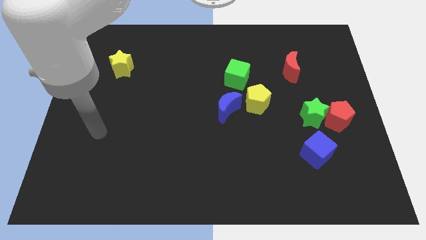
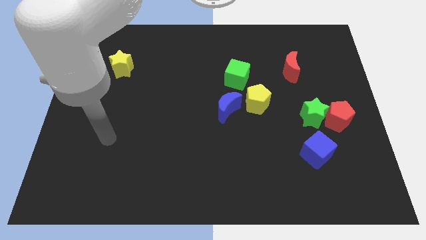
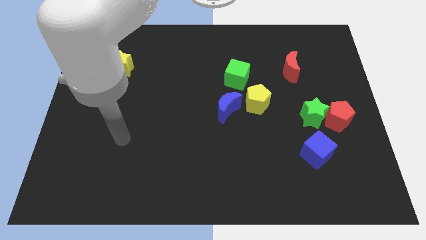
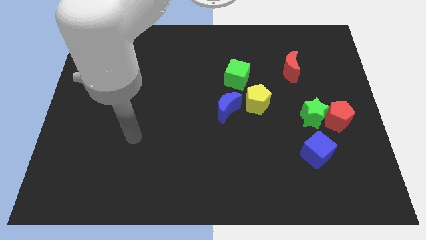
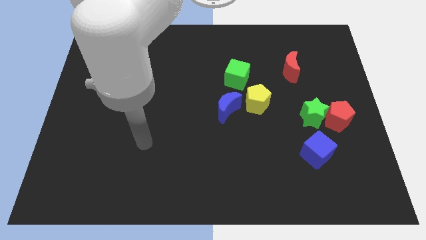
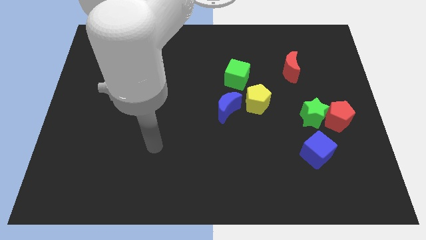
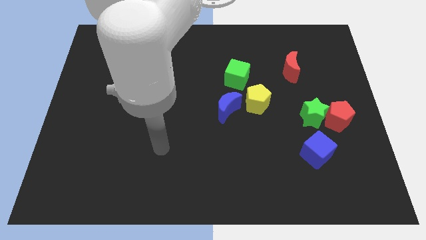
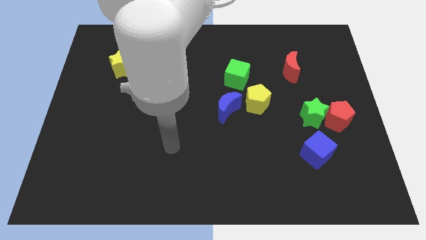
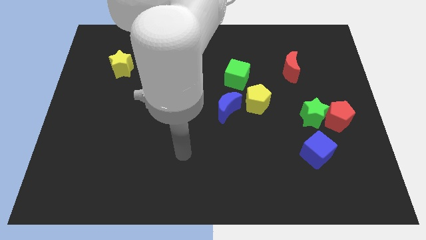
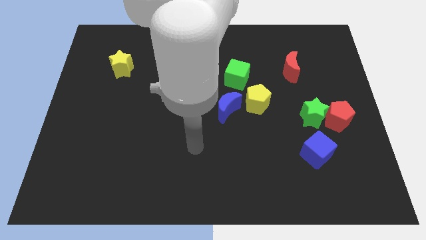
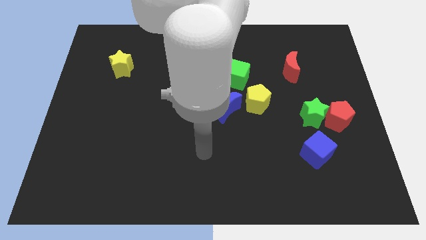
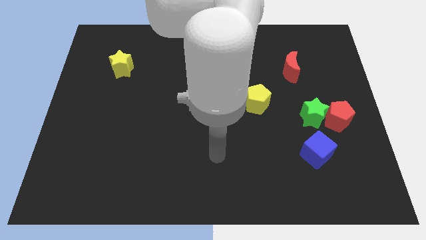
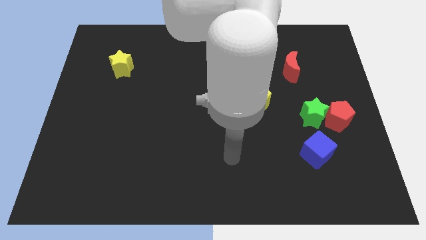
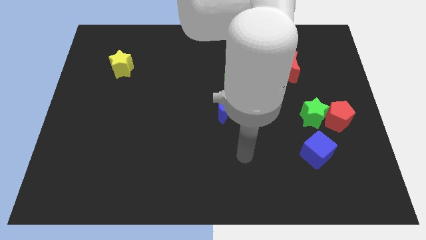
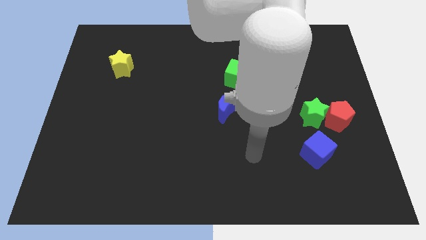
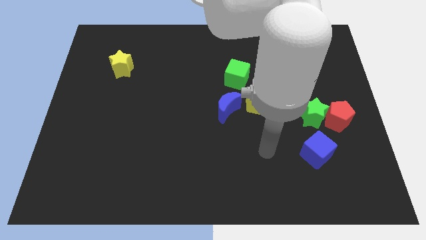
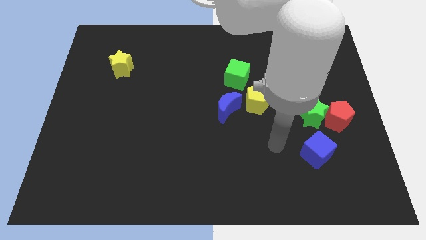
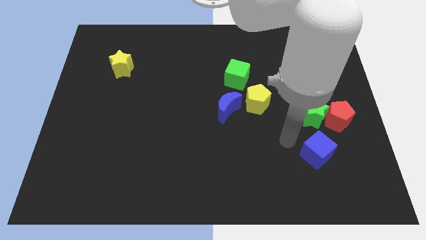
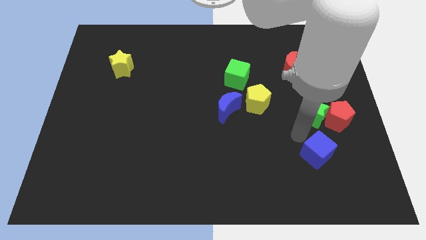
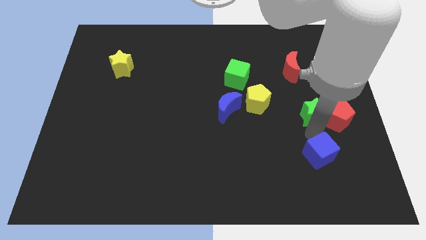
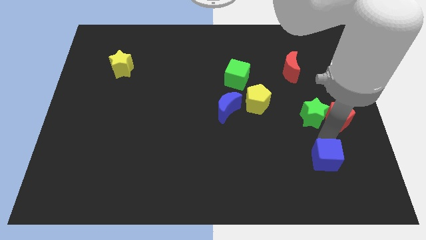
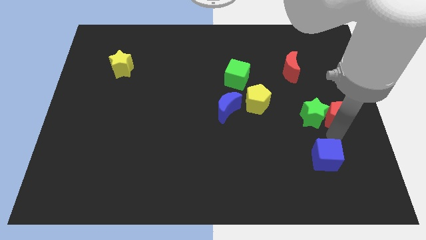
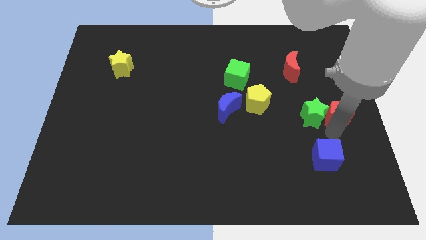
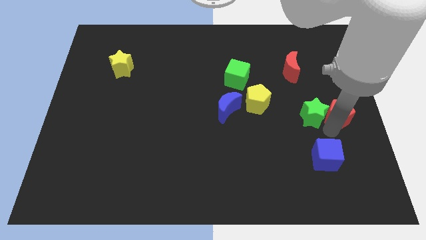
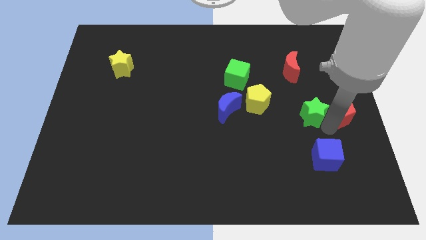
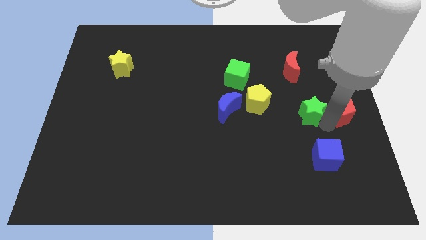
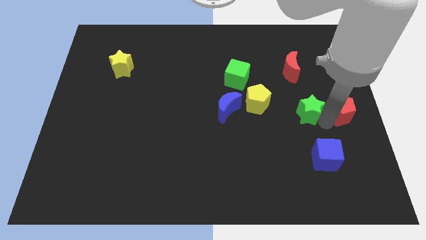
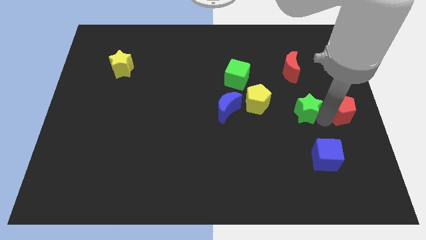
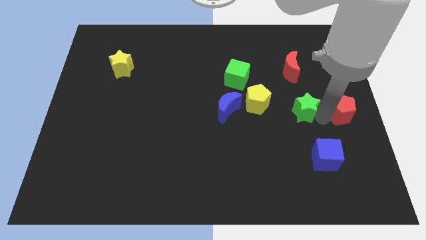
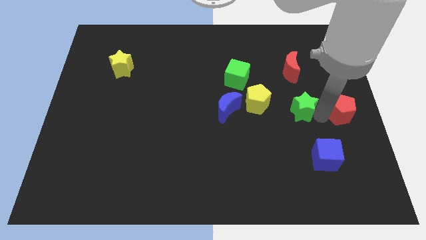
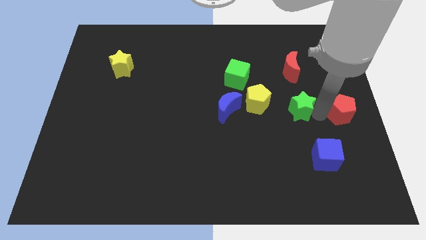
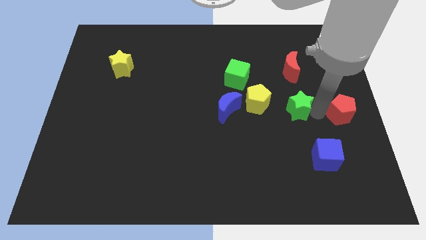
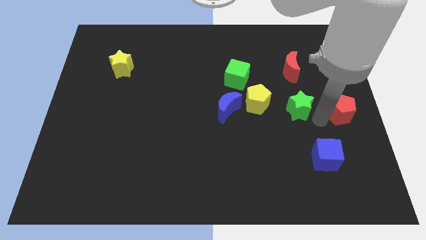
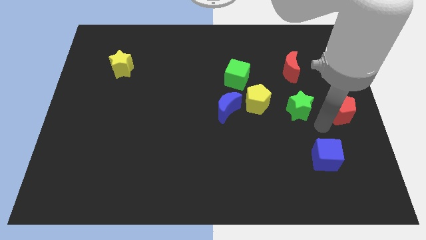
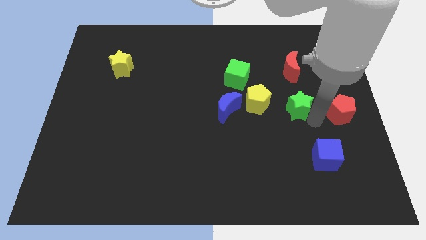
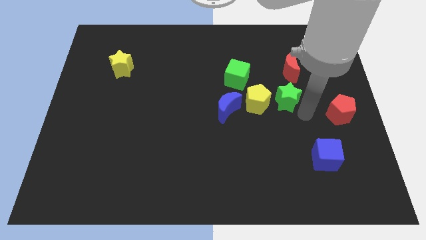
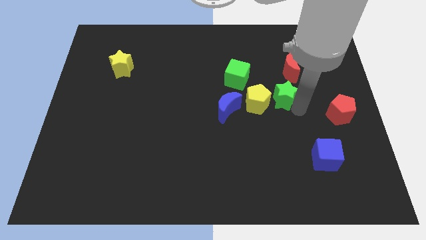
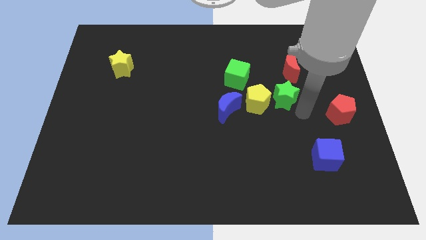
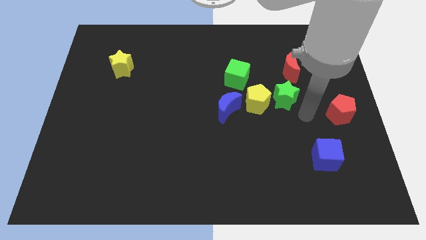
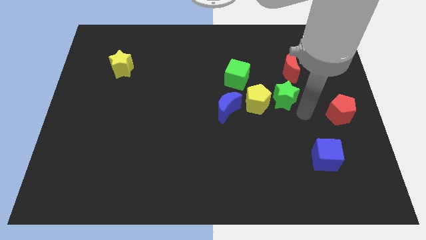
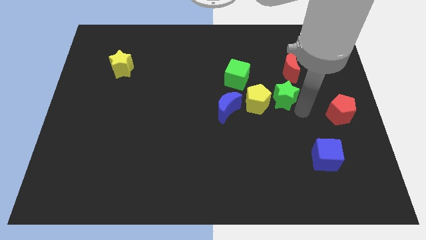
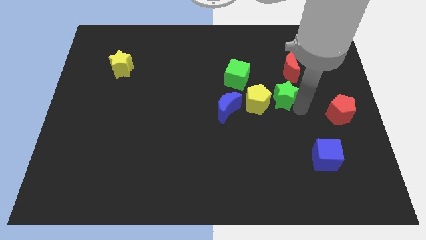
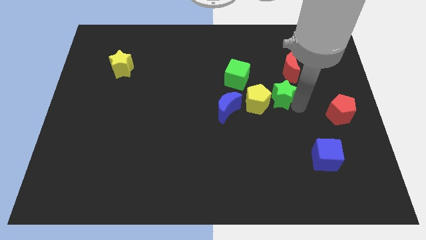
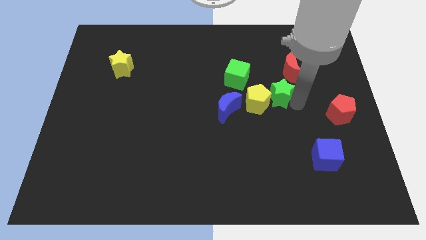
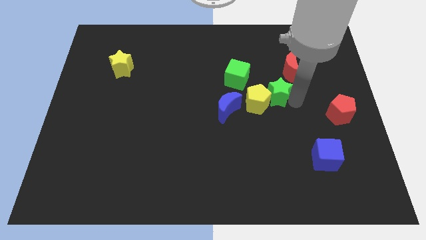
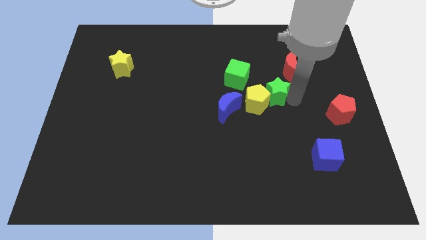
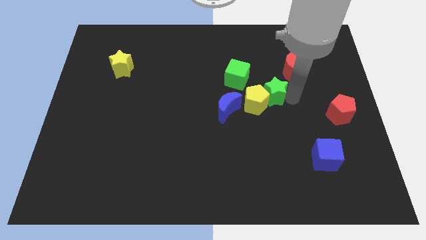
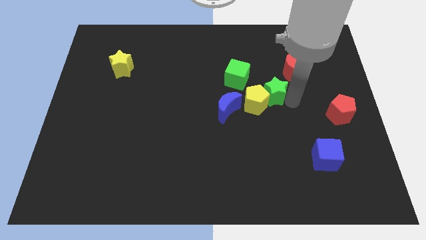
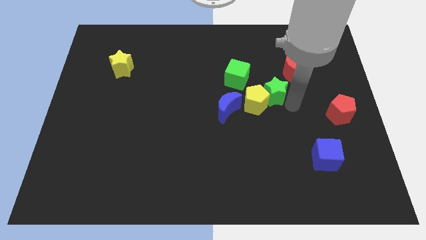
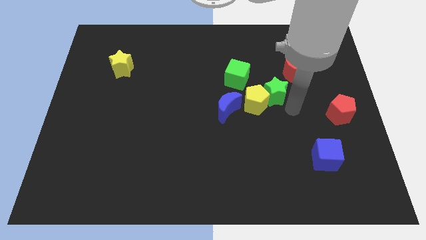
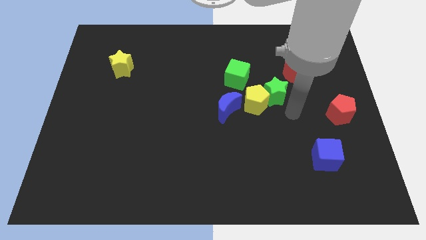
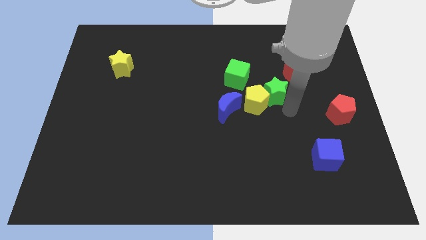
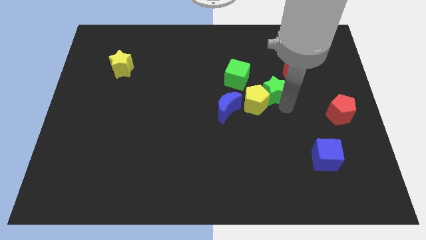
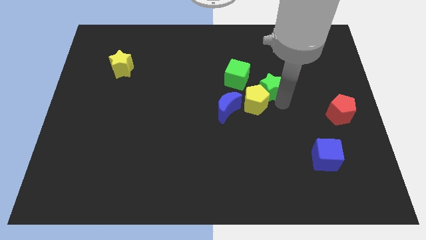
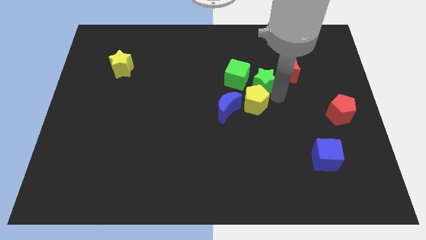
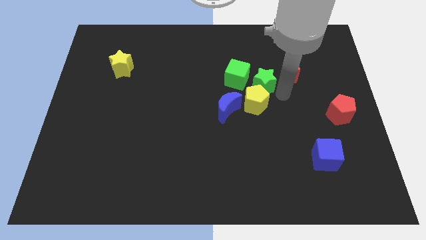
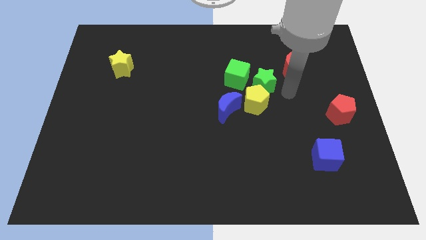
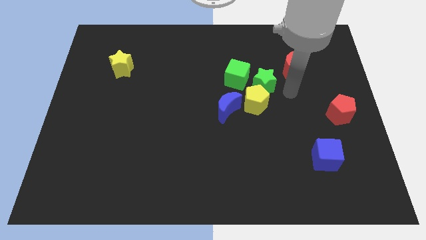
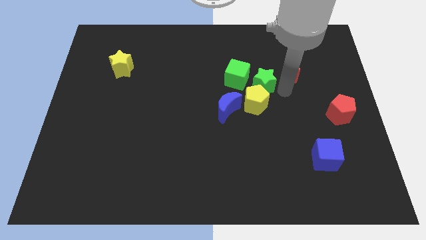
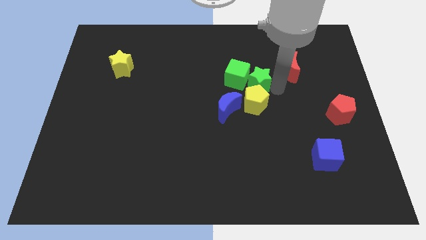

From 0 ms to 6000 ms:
move the green star towards the green cube

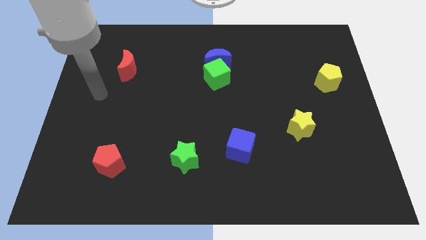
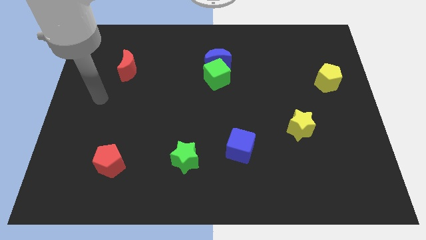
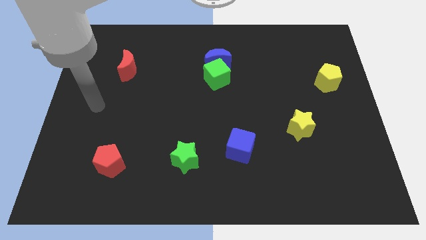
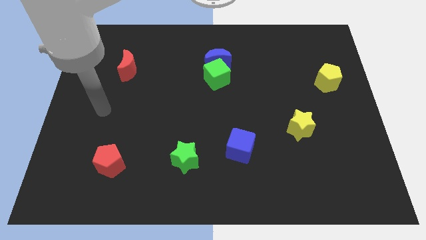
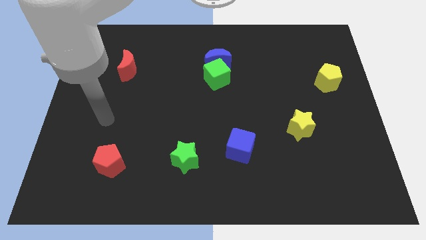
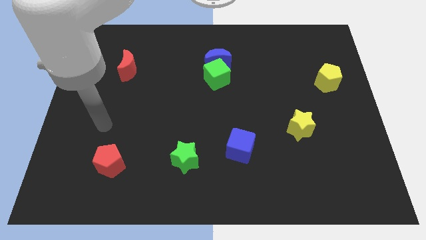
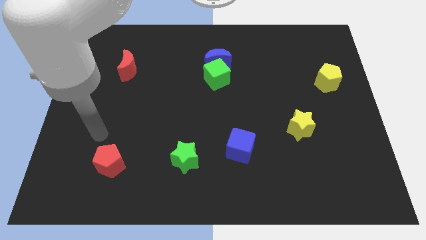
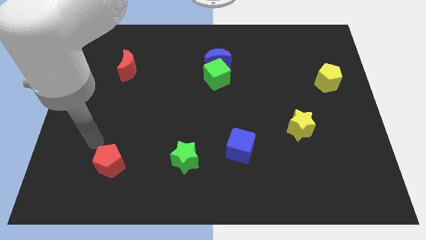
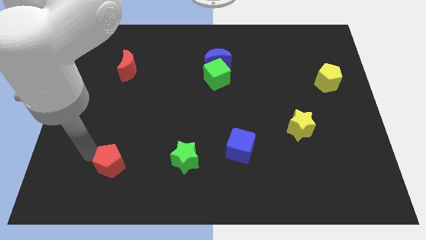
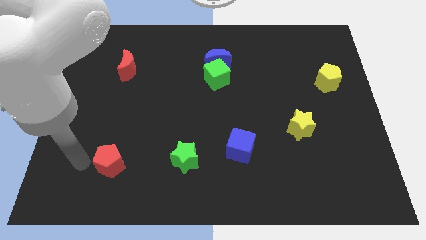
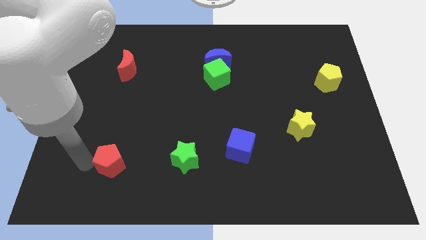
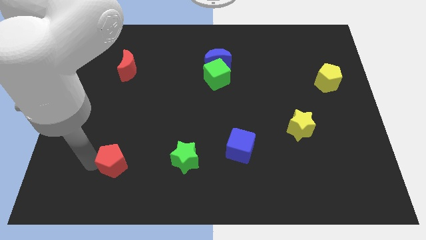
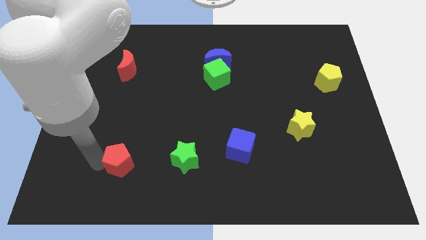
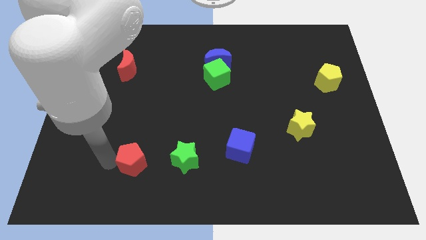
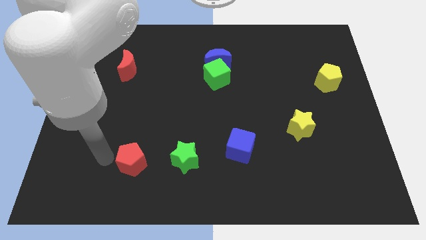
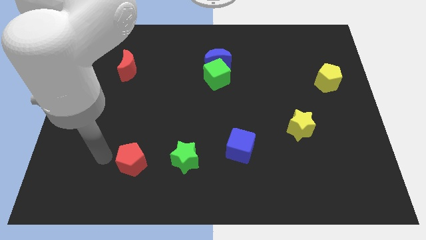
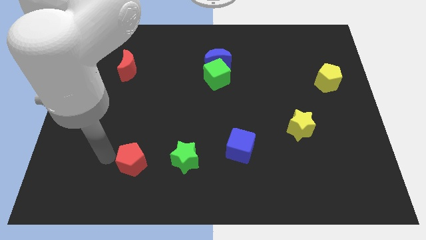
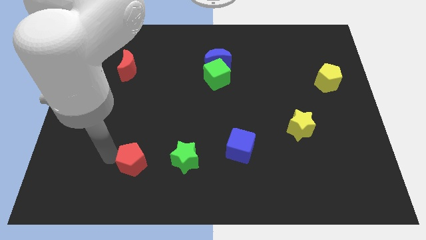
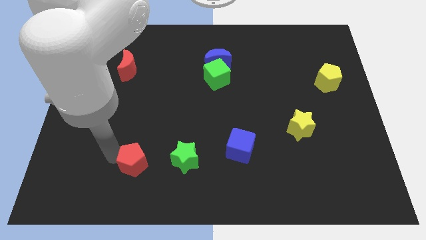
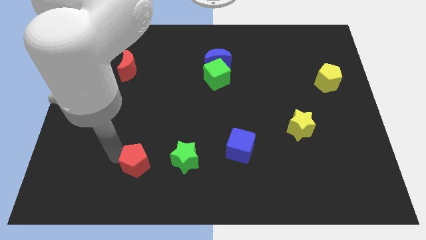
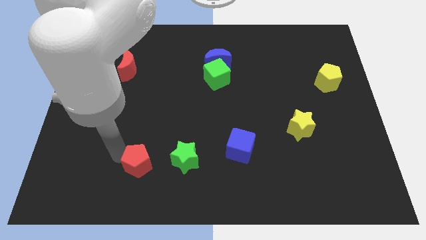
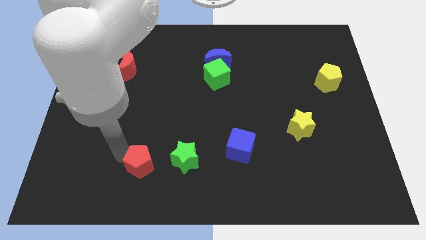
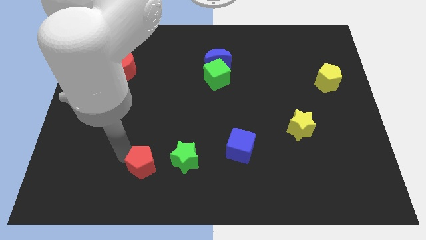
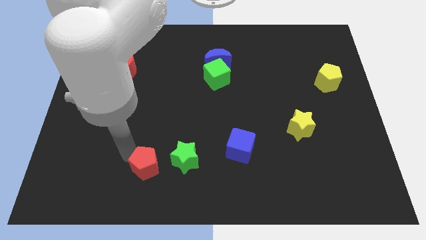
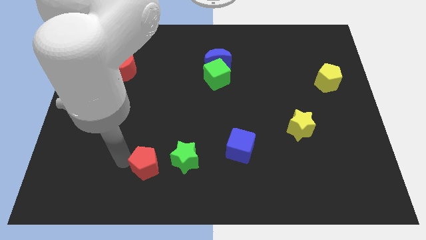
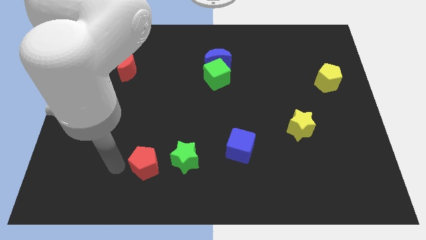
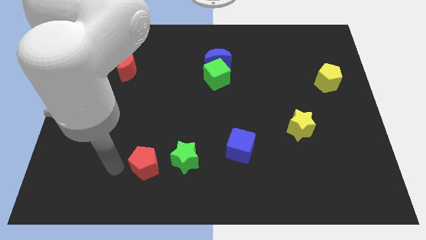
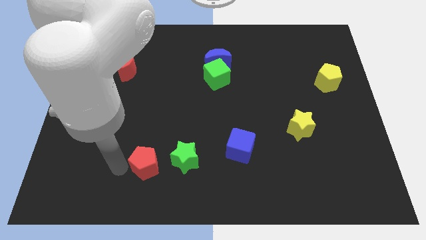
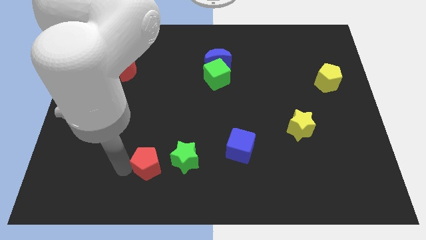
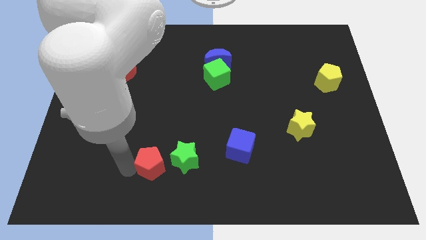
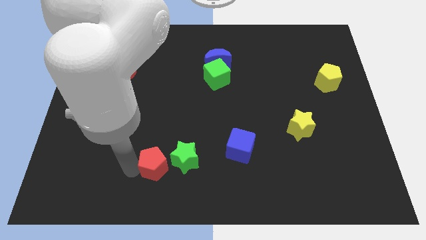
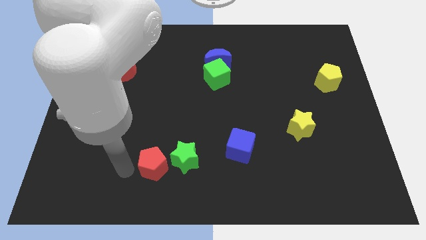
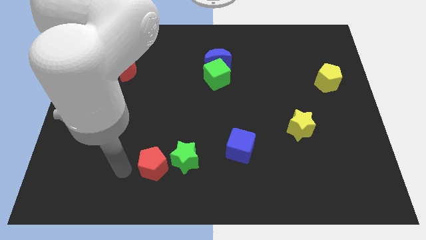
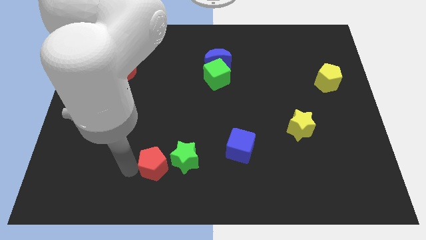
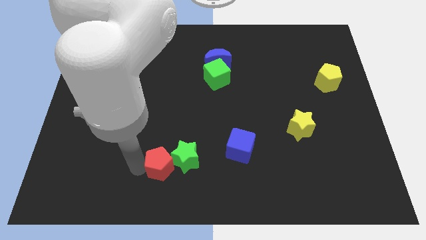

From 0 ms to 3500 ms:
move the red pentagon to the green star
